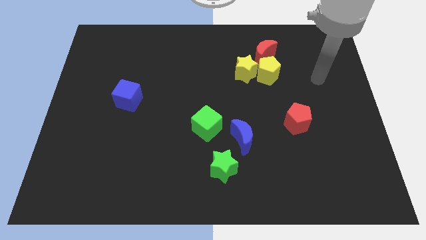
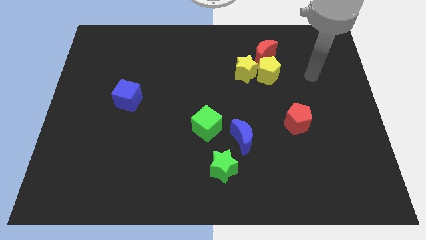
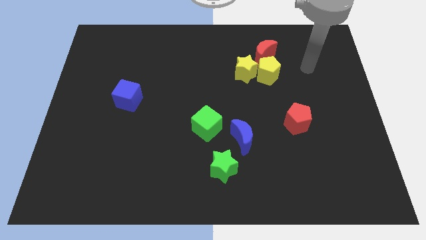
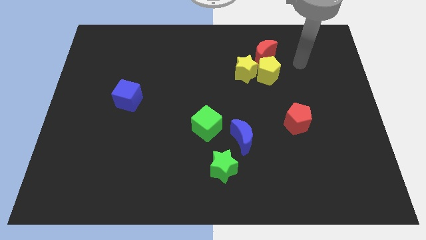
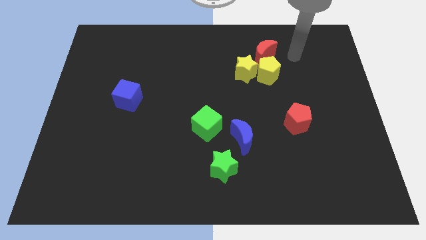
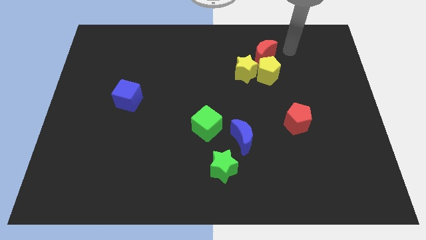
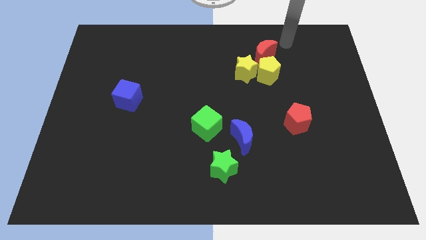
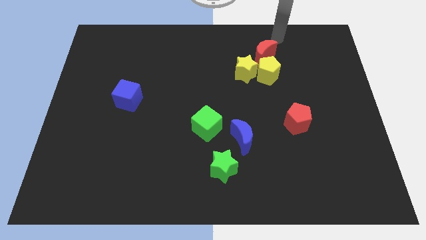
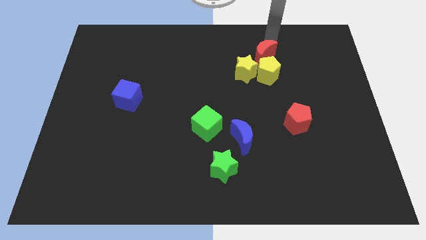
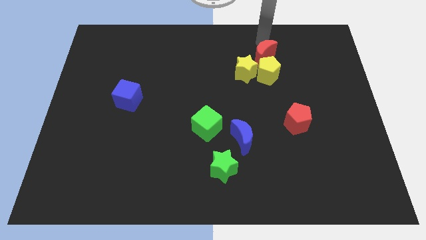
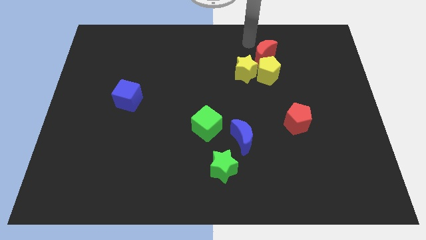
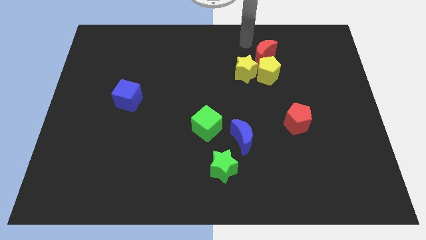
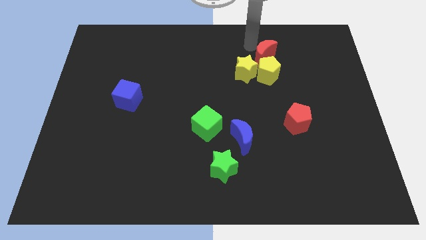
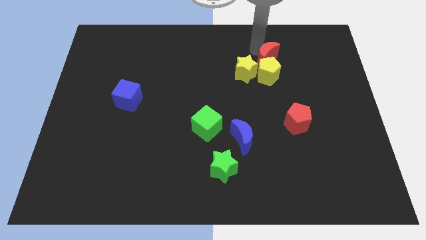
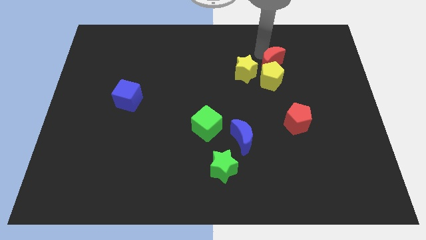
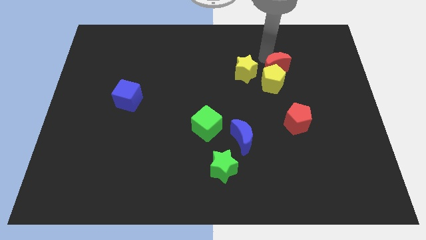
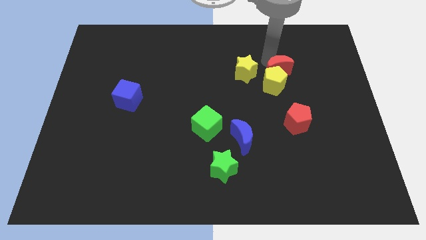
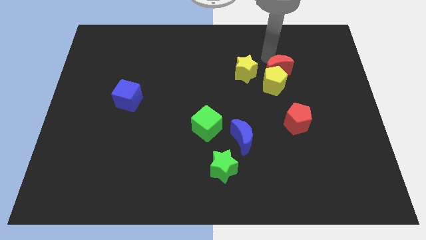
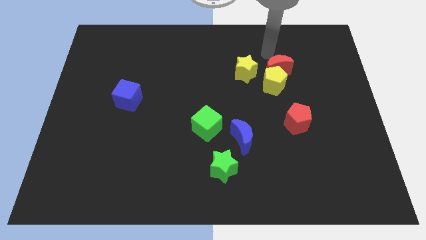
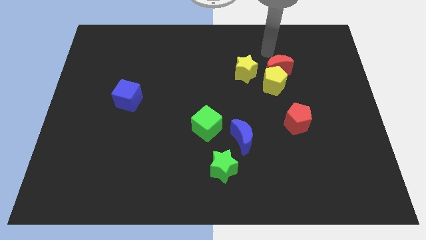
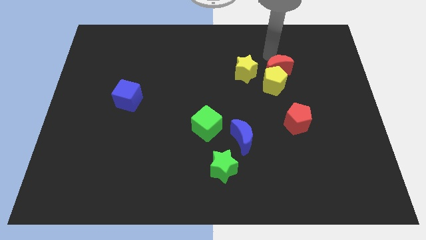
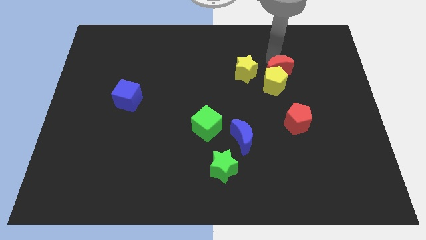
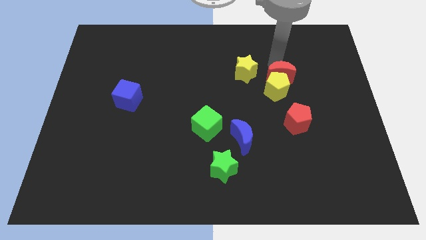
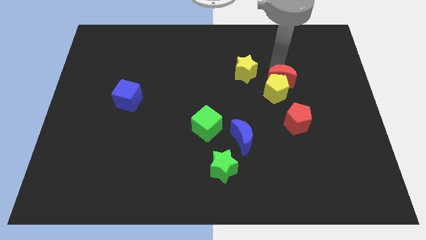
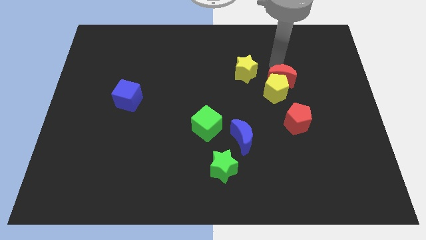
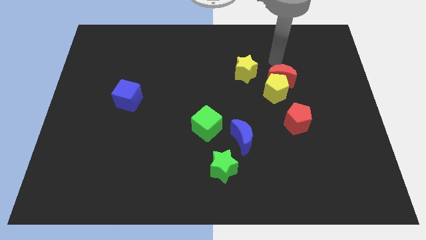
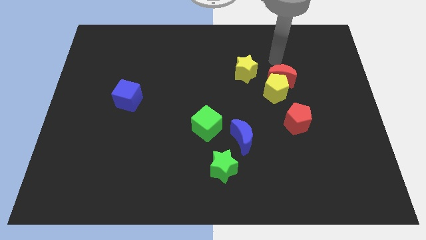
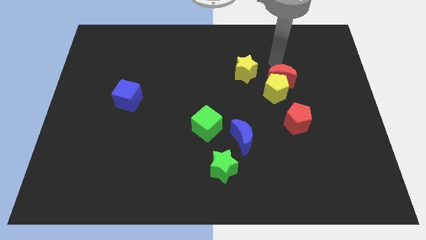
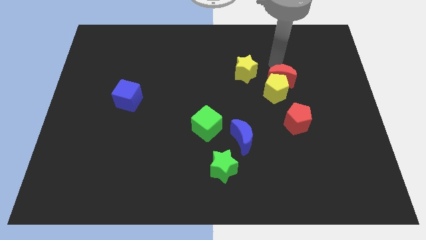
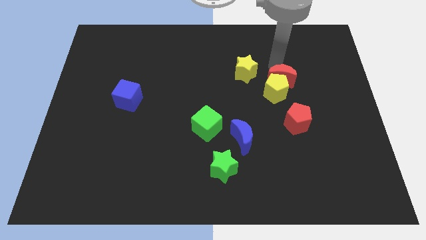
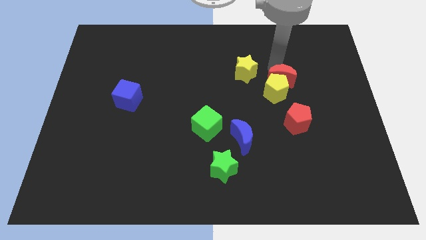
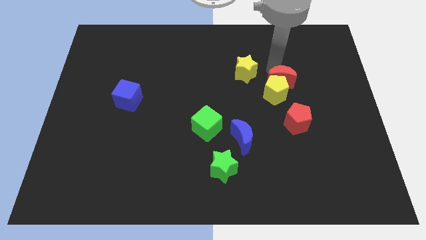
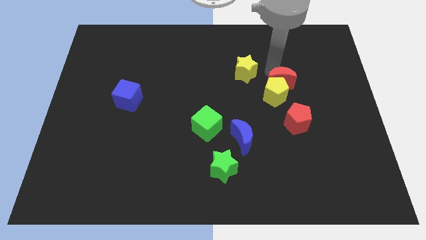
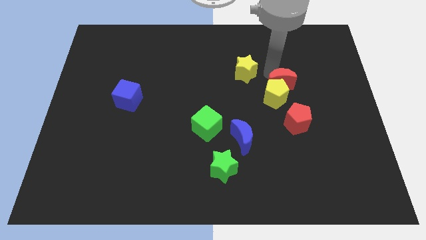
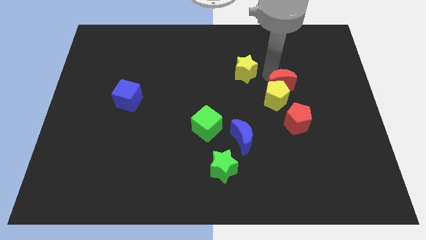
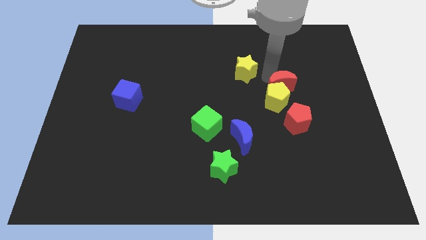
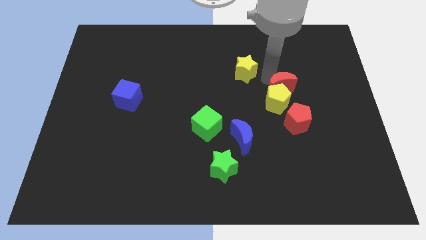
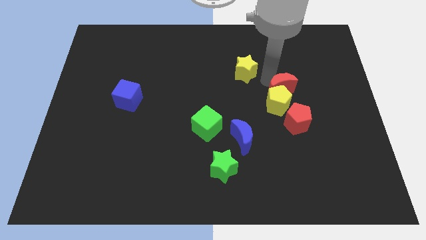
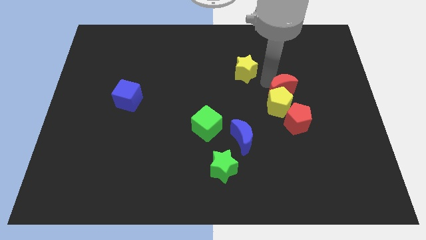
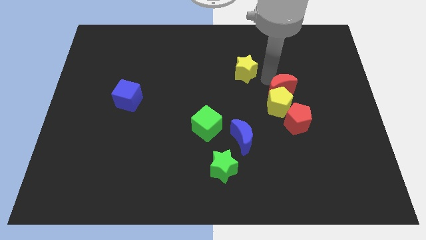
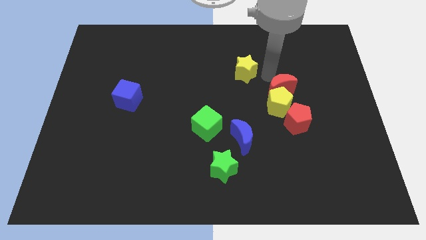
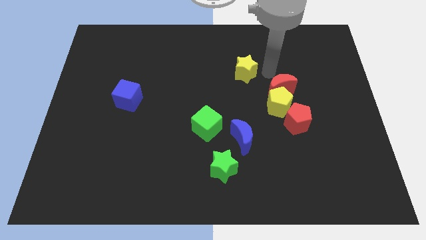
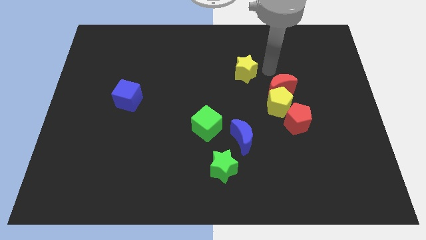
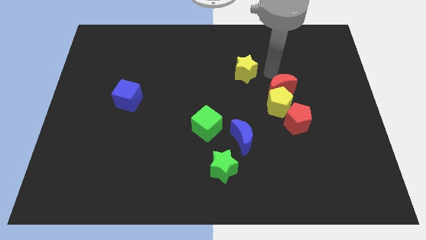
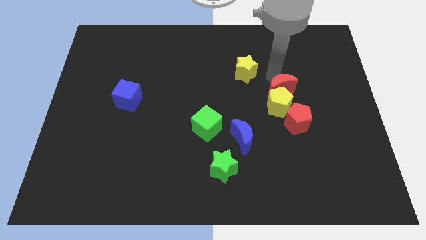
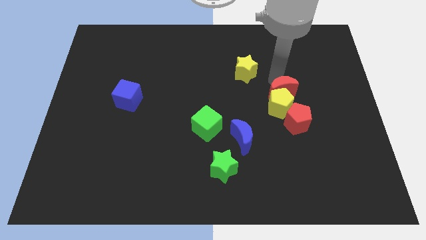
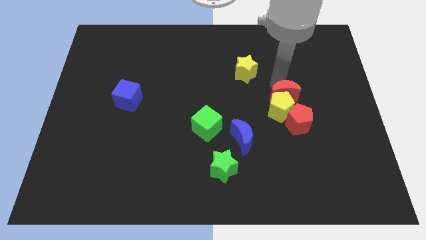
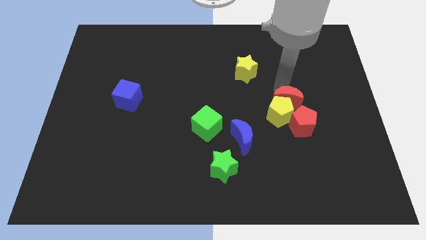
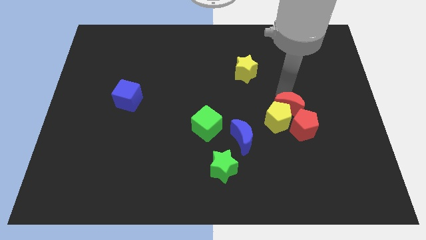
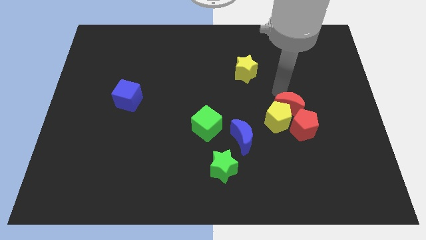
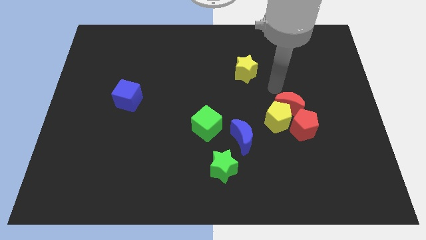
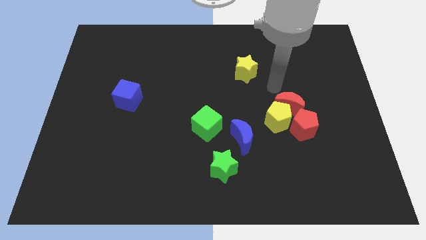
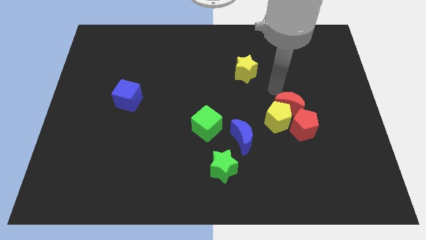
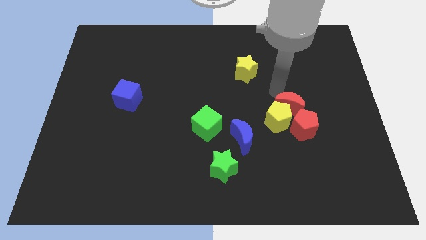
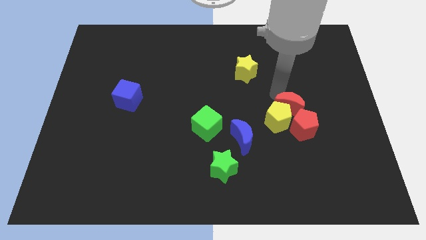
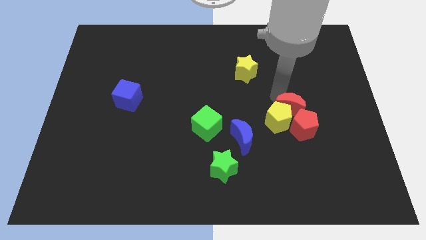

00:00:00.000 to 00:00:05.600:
put the red moon to the red pentagon

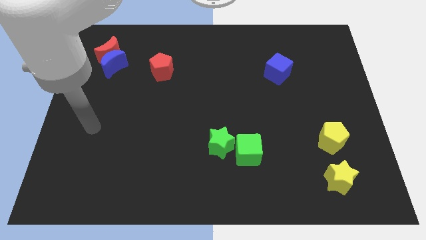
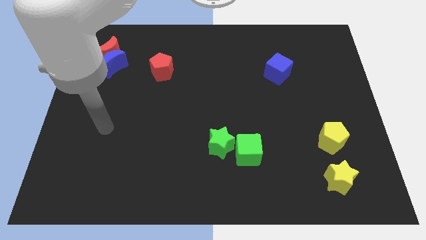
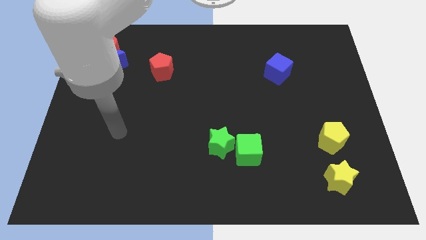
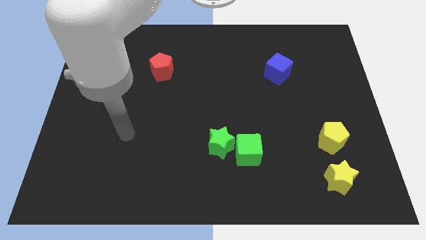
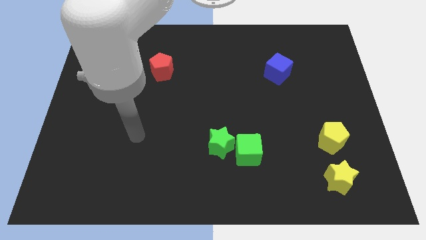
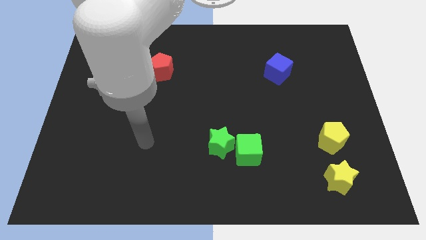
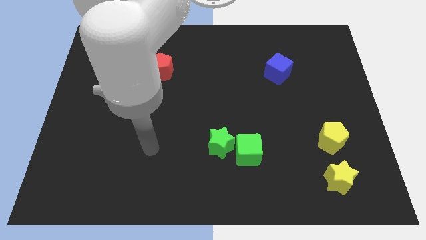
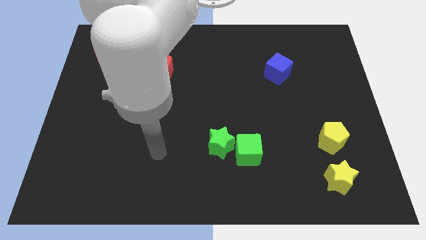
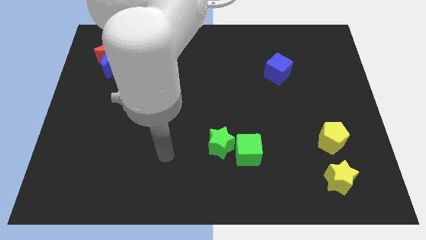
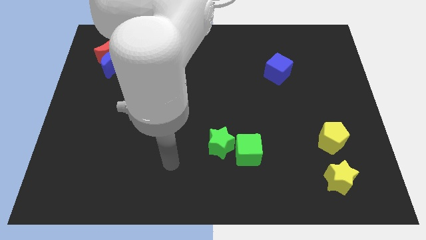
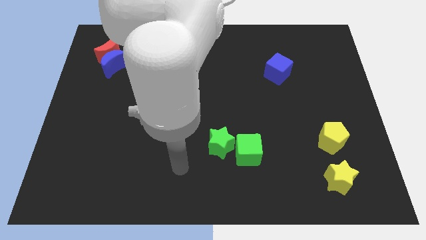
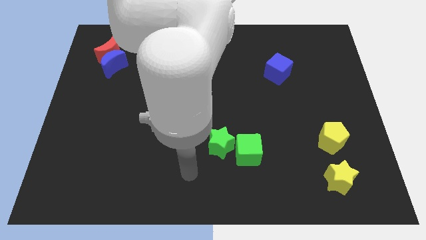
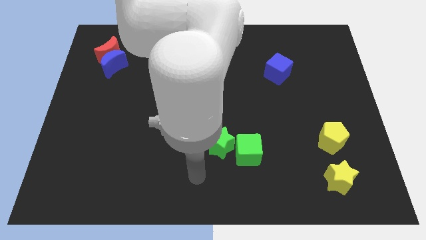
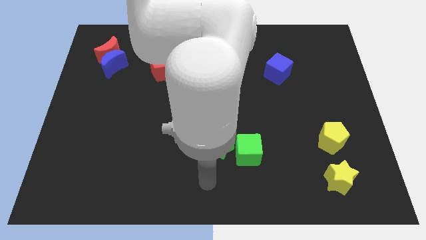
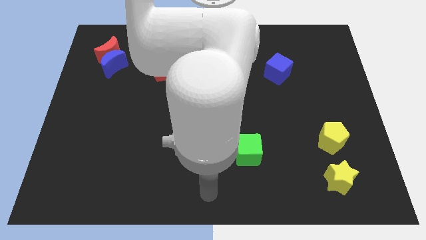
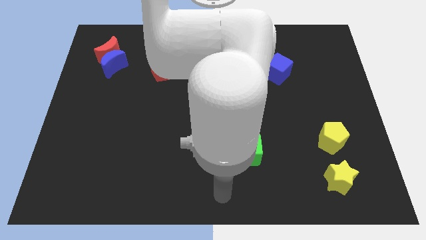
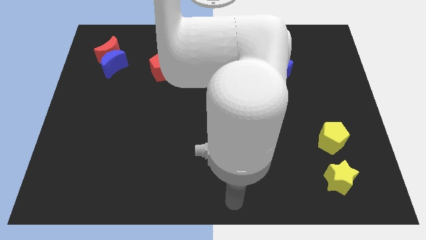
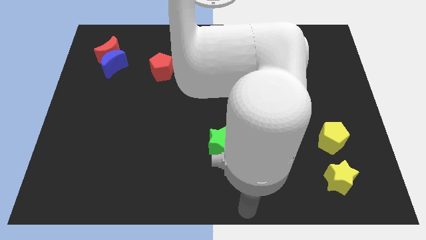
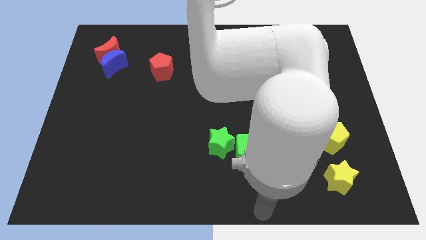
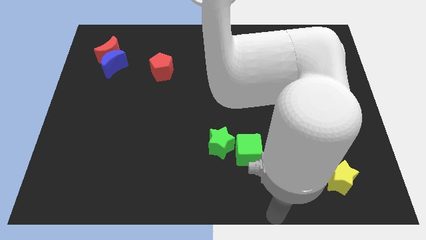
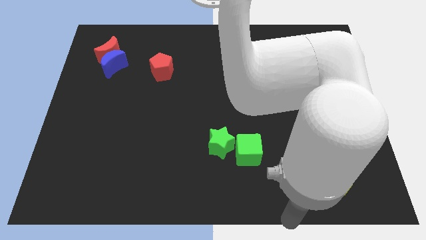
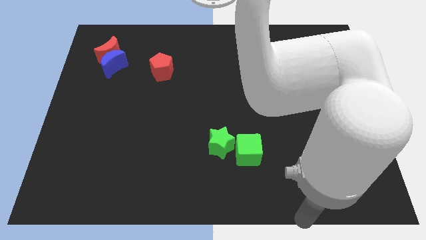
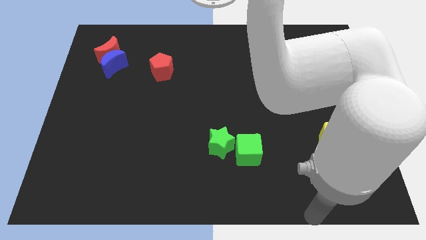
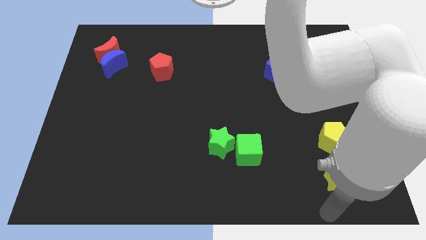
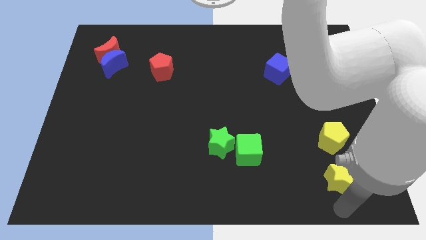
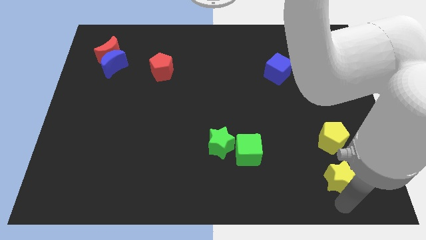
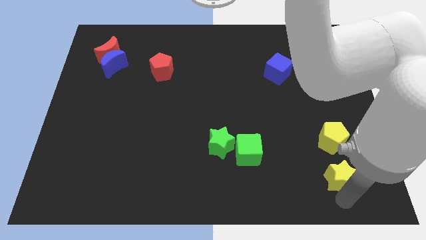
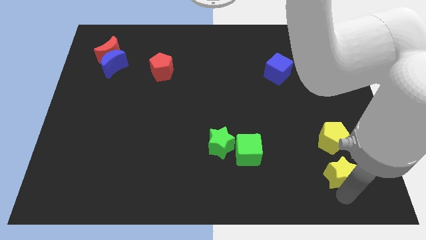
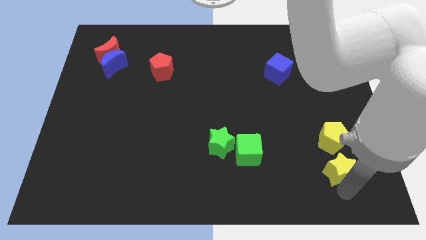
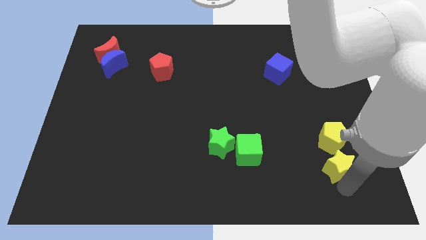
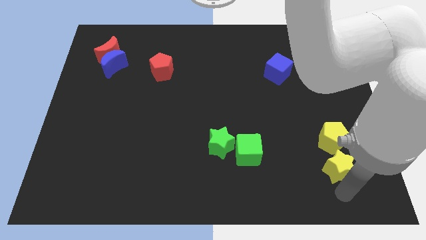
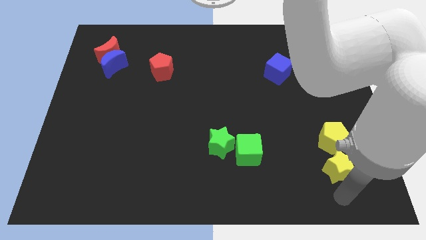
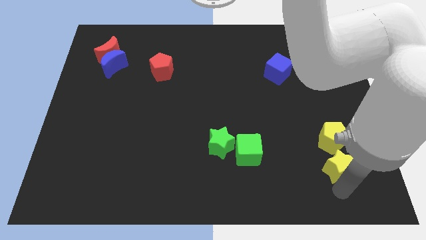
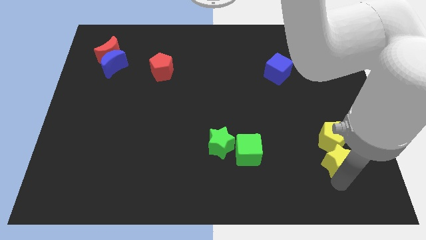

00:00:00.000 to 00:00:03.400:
put the yellow star towards the yellow pentagon
